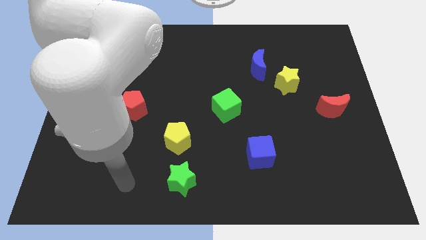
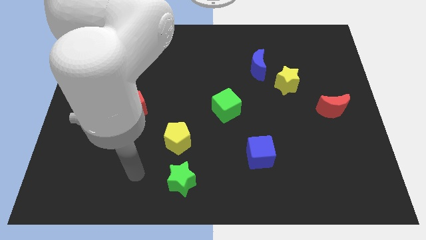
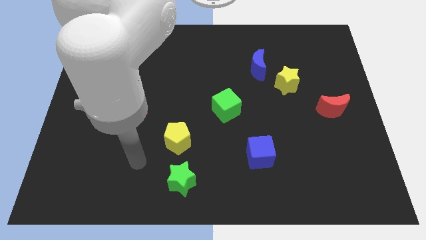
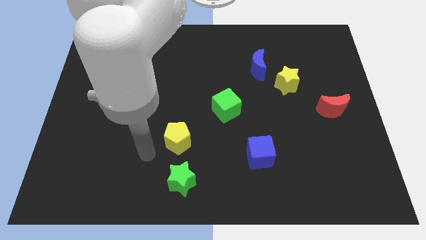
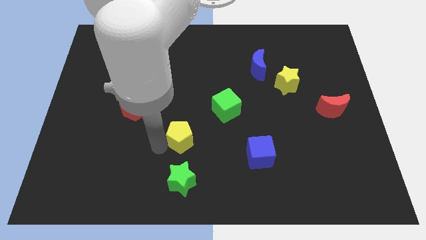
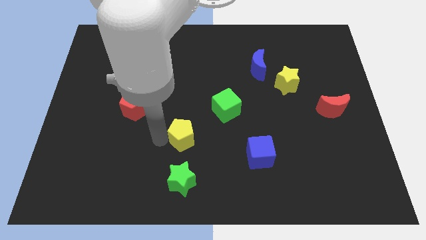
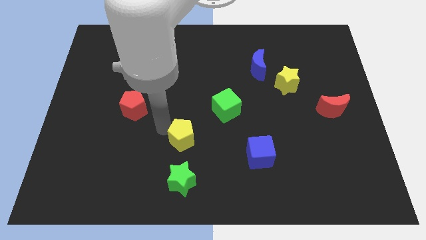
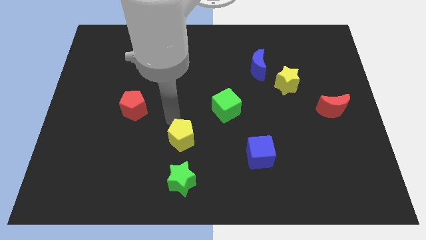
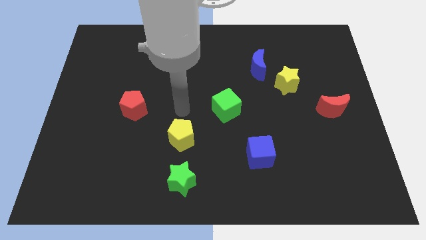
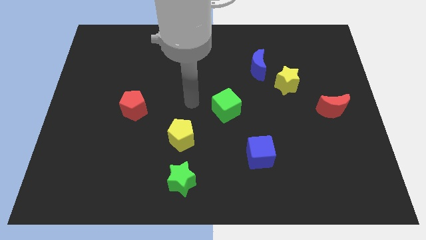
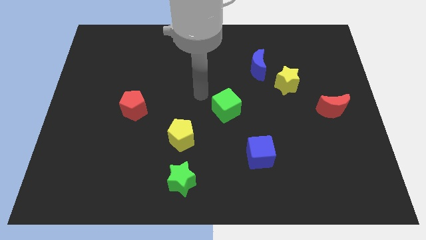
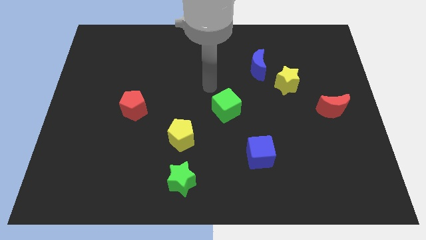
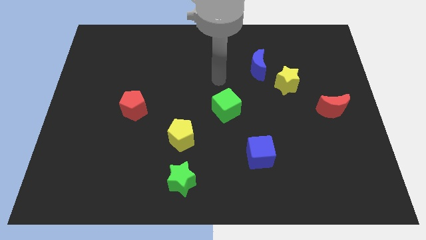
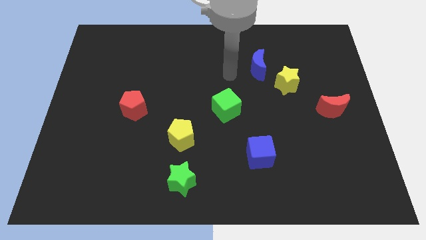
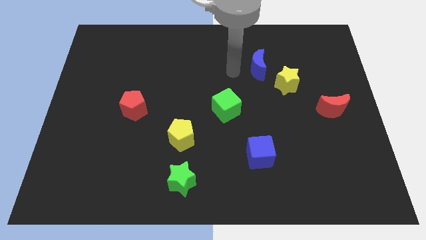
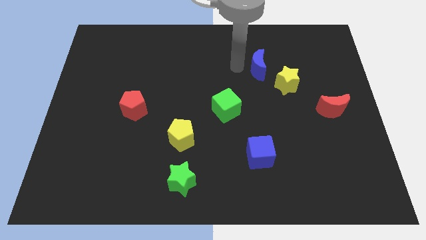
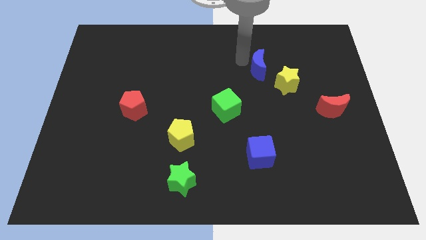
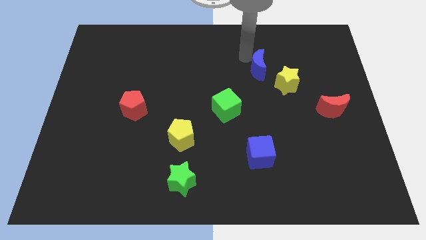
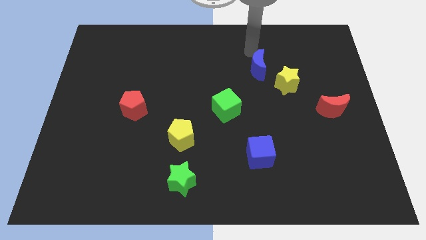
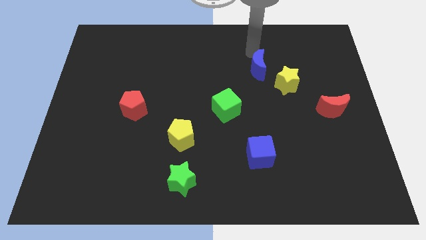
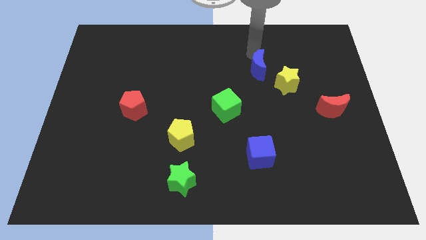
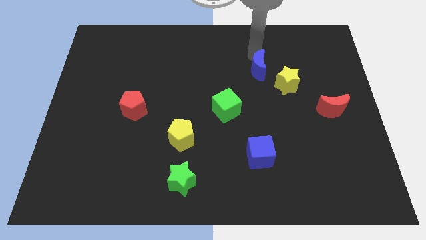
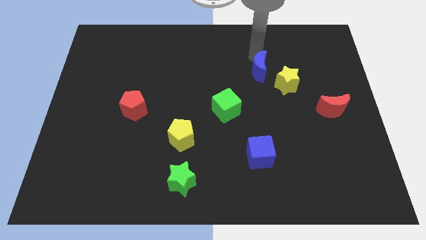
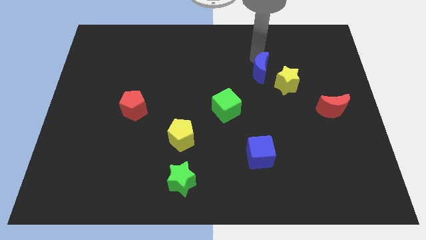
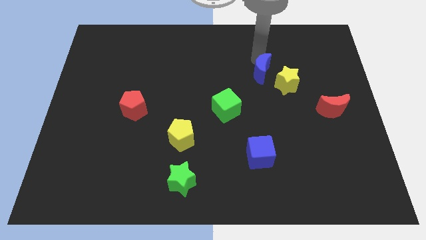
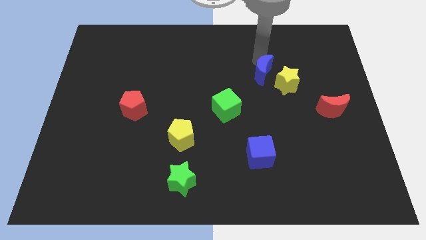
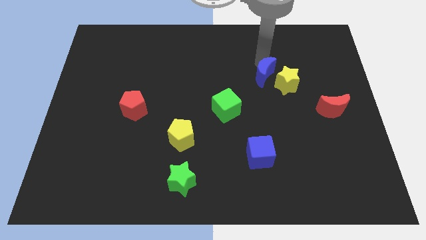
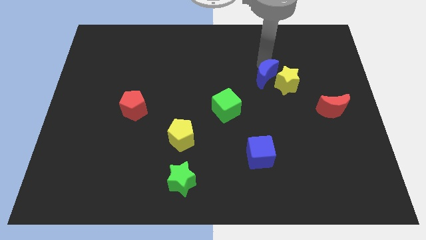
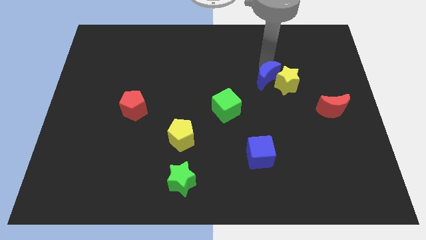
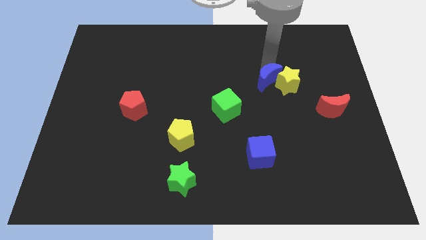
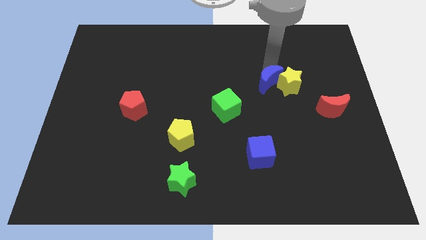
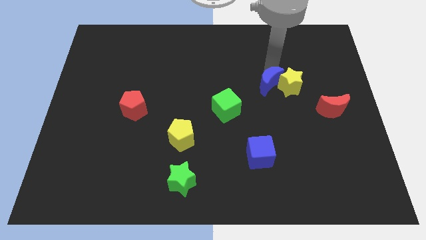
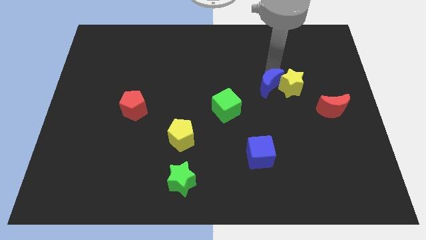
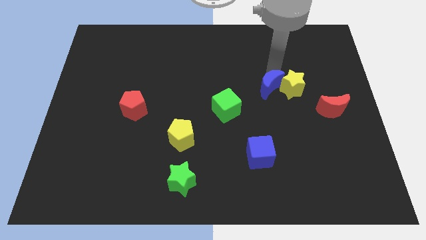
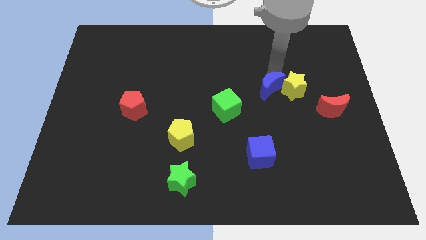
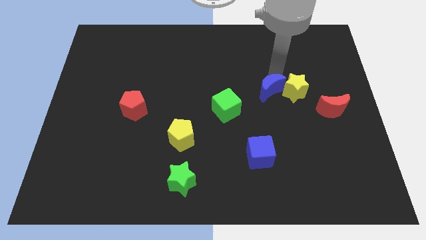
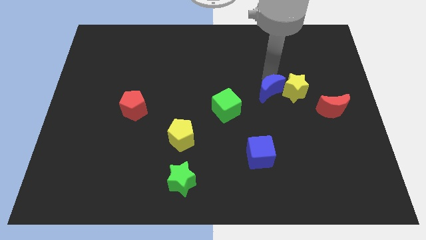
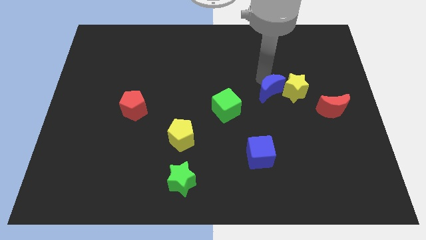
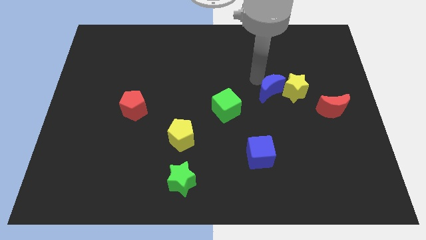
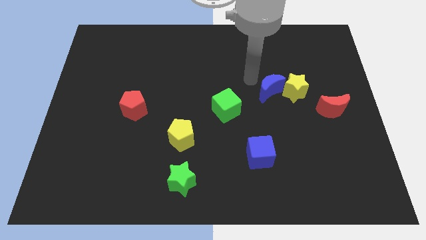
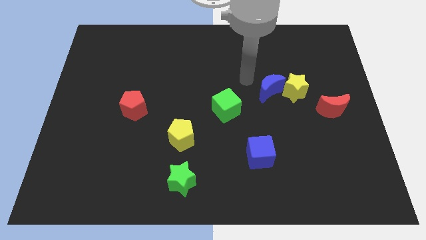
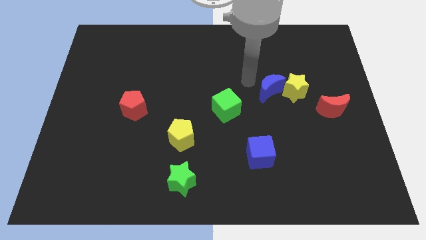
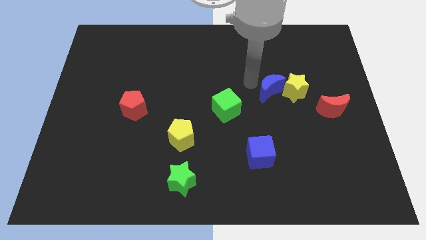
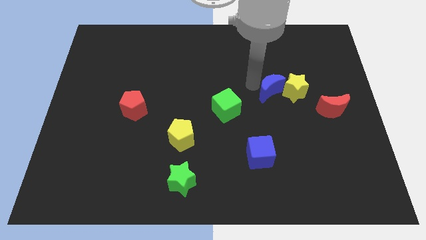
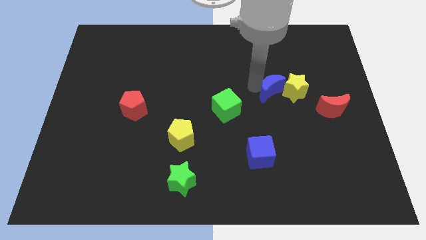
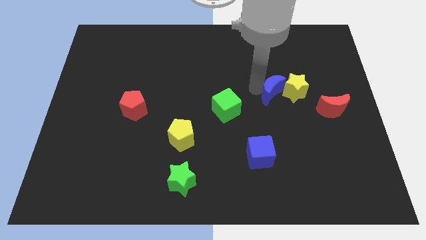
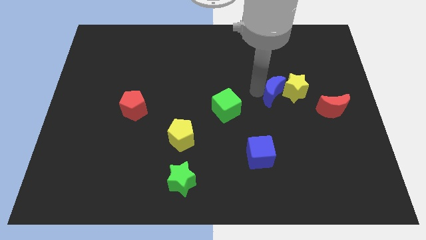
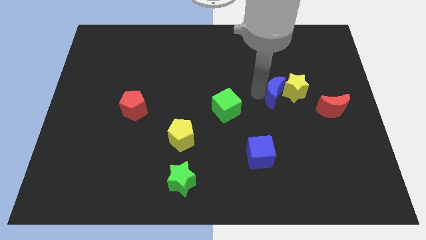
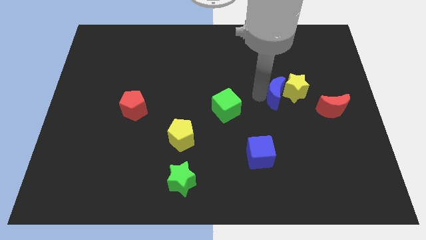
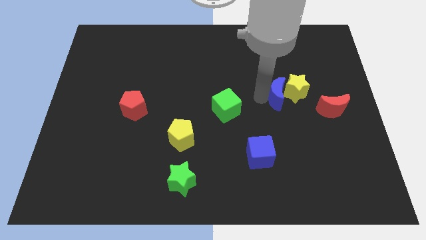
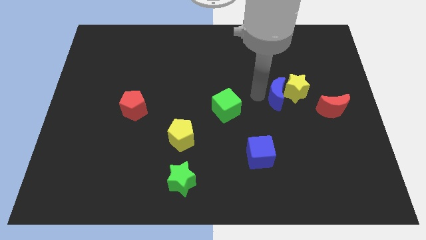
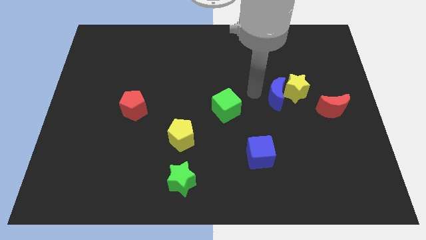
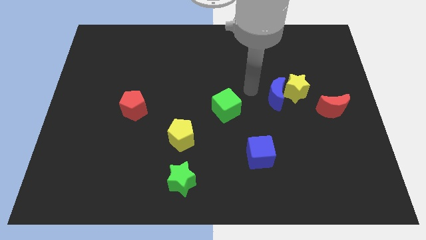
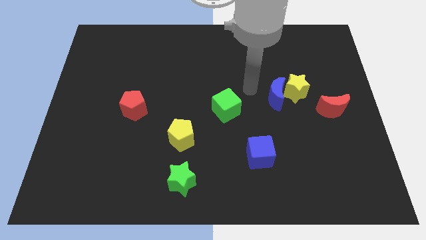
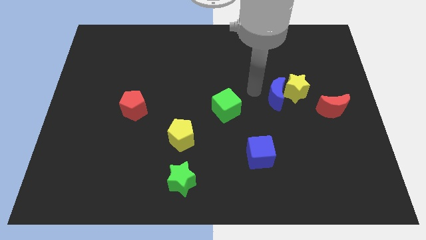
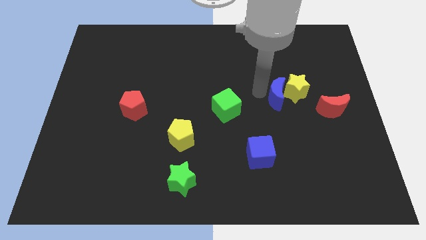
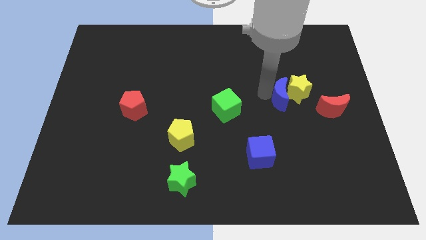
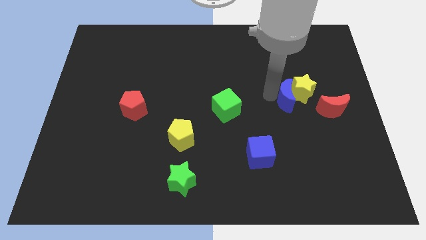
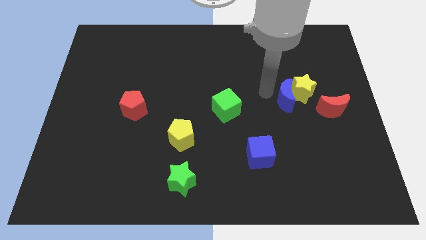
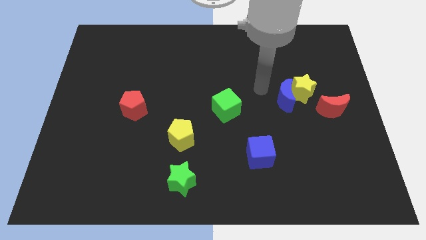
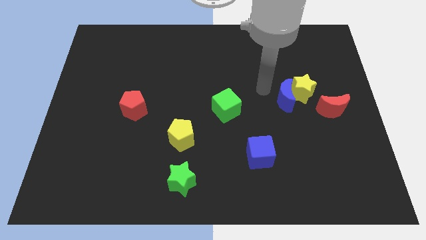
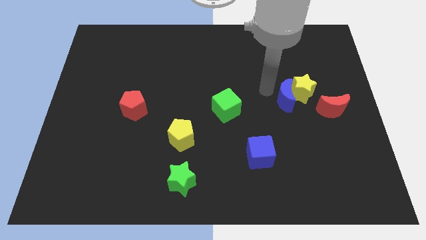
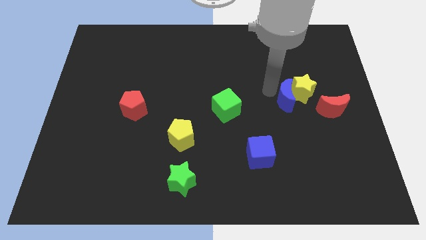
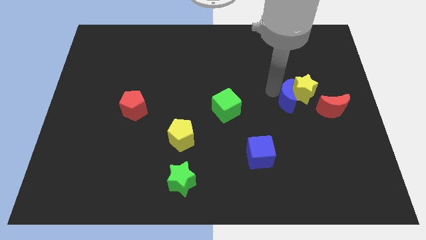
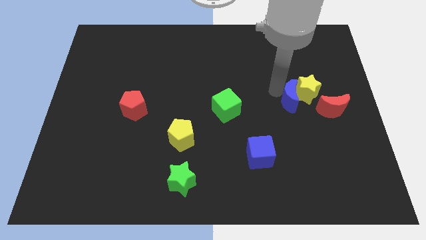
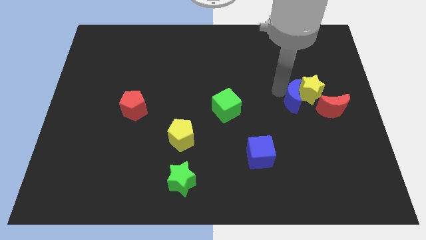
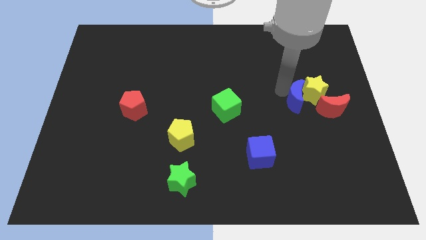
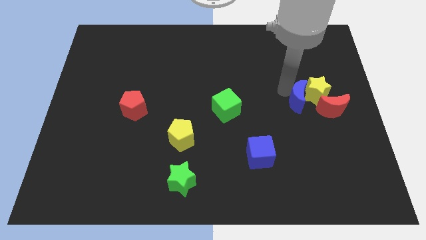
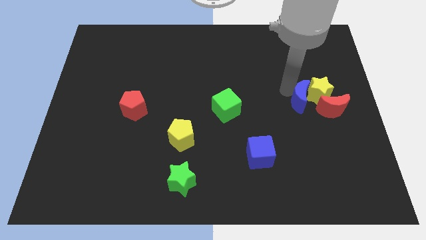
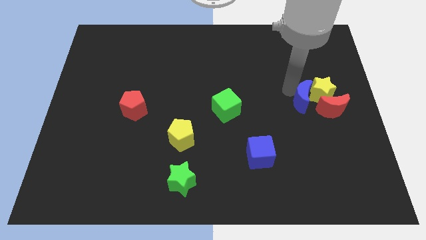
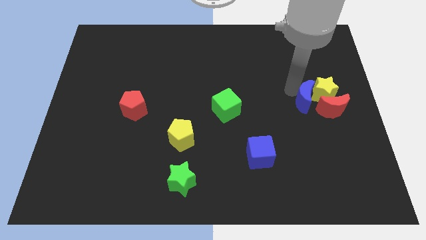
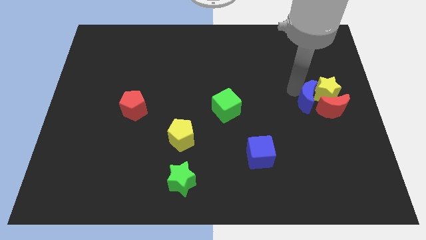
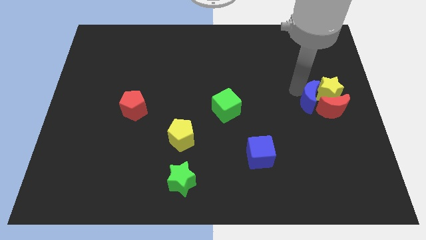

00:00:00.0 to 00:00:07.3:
move the blue moon to the red moon
